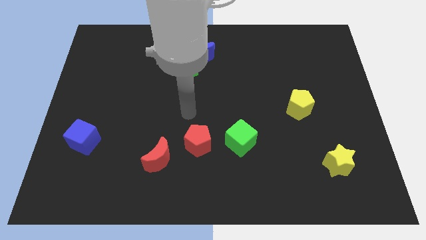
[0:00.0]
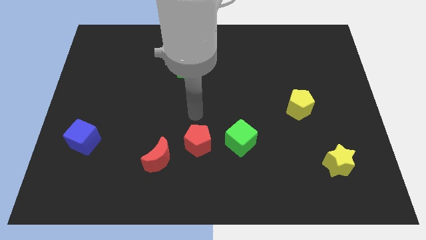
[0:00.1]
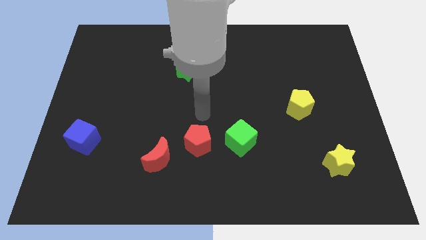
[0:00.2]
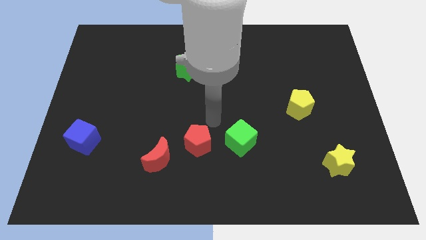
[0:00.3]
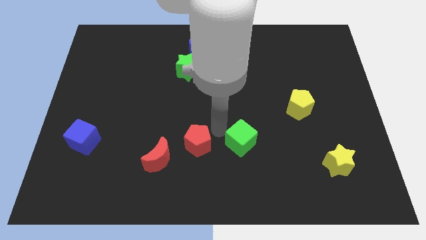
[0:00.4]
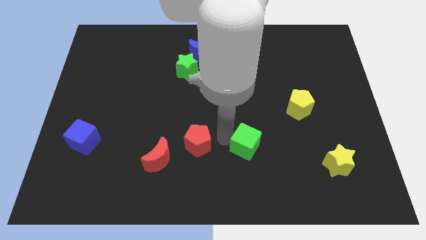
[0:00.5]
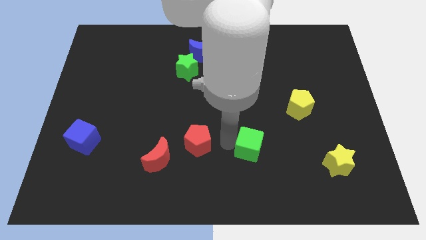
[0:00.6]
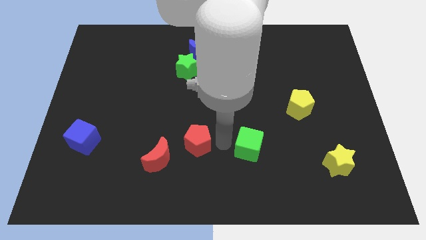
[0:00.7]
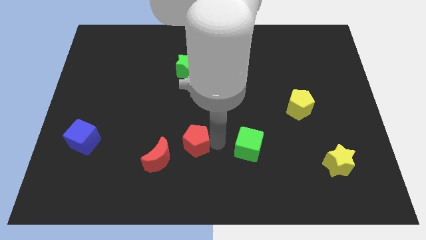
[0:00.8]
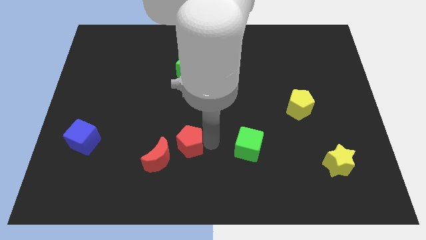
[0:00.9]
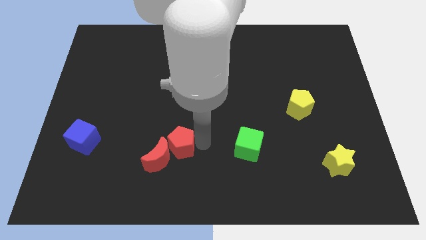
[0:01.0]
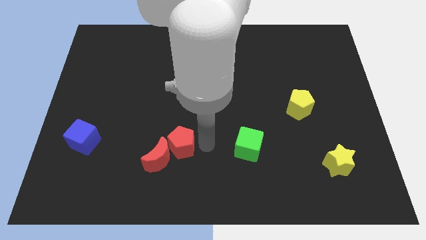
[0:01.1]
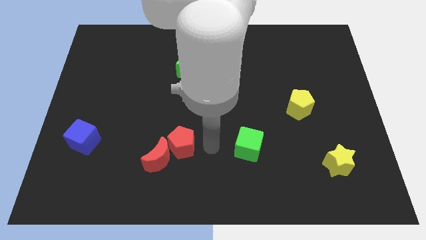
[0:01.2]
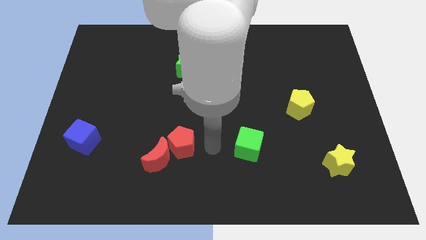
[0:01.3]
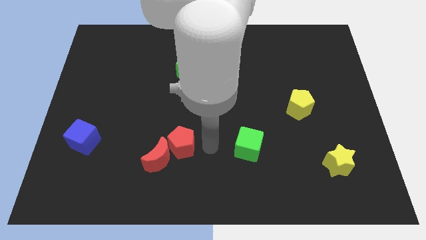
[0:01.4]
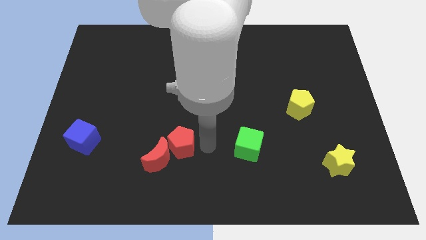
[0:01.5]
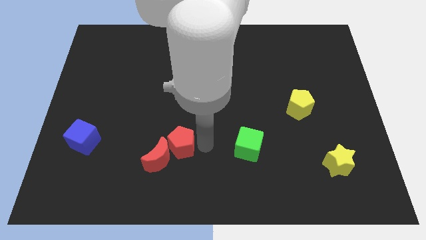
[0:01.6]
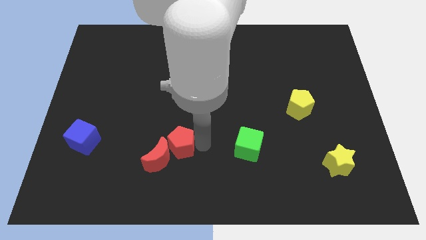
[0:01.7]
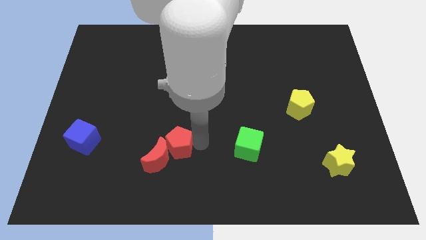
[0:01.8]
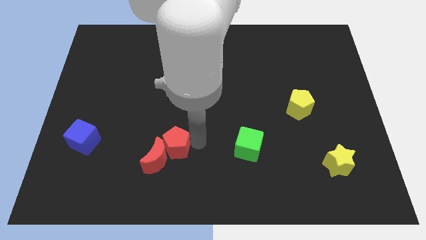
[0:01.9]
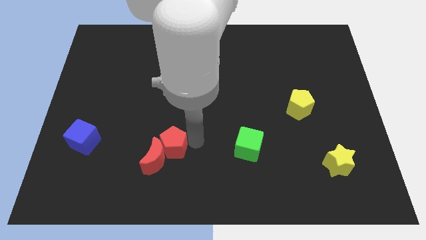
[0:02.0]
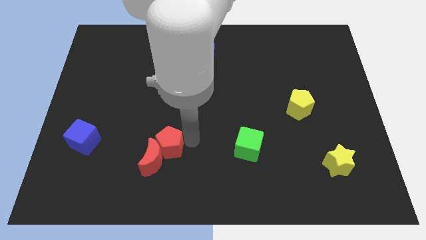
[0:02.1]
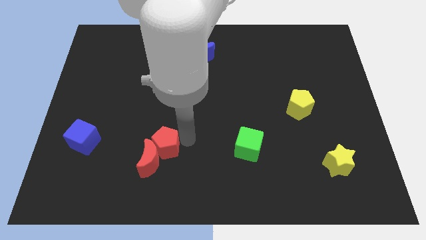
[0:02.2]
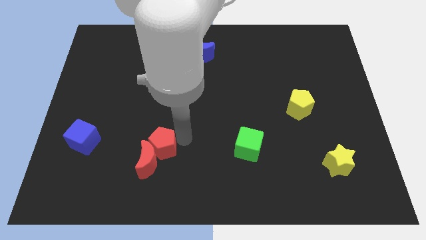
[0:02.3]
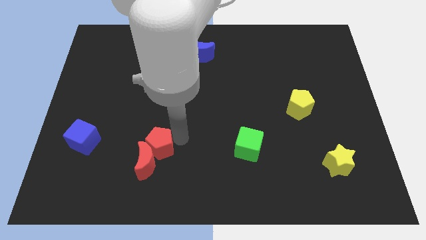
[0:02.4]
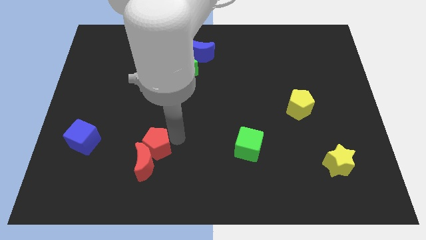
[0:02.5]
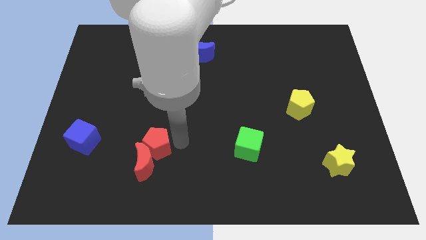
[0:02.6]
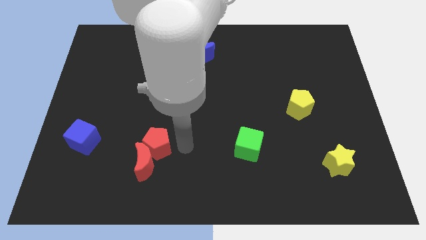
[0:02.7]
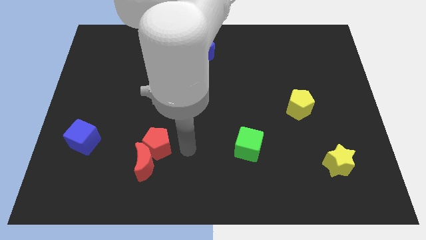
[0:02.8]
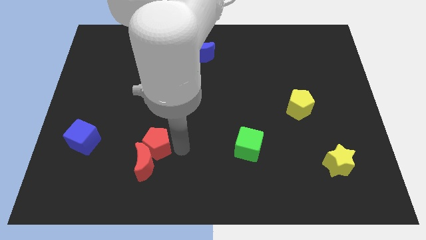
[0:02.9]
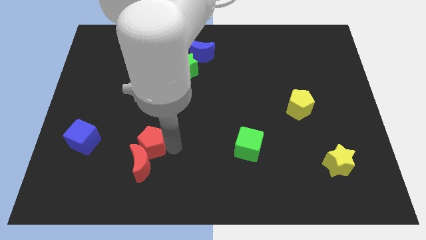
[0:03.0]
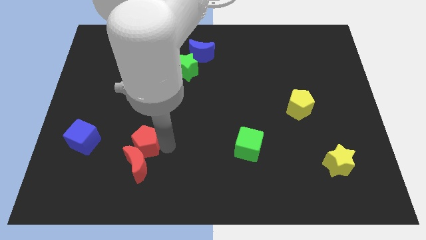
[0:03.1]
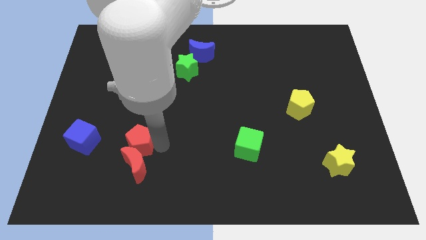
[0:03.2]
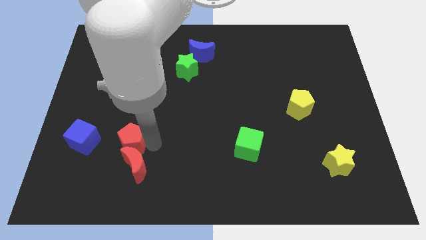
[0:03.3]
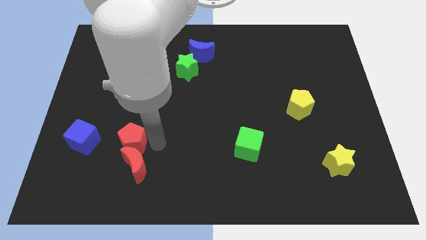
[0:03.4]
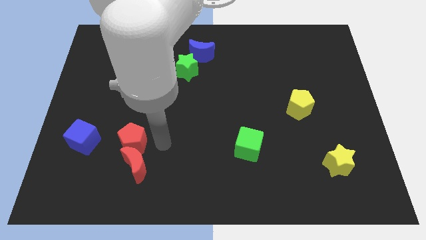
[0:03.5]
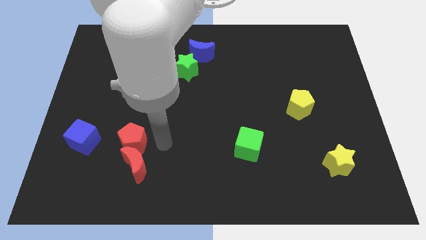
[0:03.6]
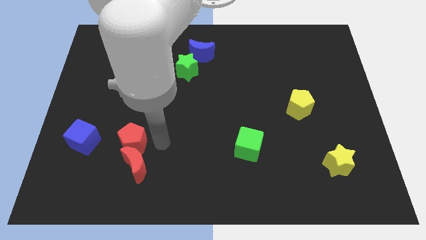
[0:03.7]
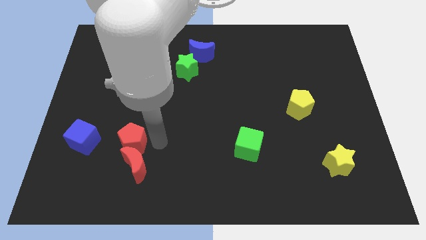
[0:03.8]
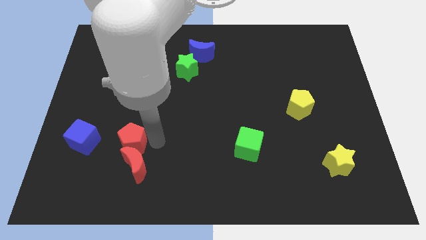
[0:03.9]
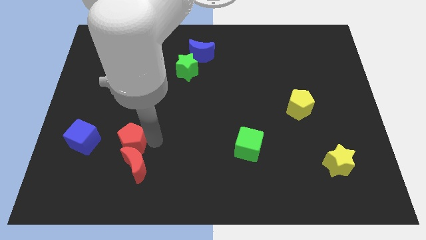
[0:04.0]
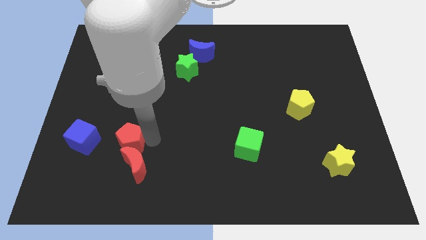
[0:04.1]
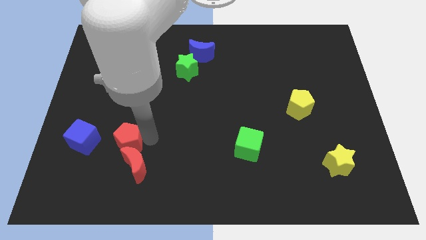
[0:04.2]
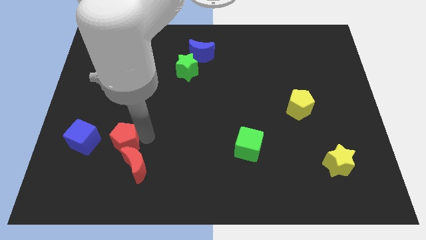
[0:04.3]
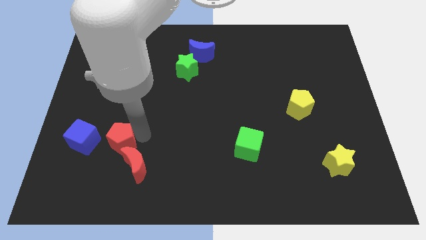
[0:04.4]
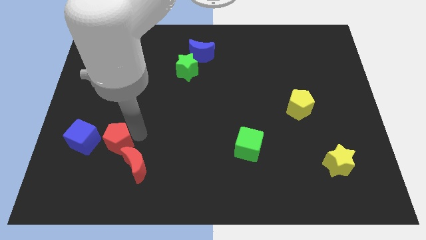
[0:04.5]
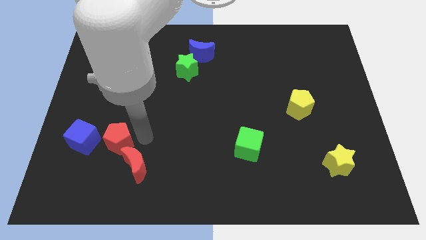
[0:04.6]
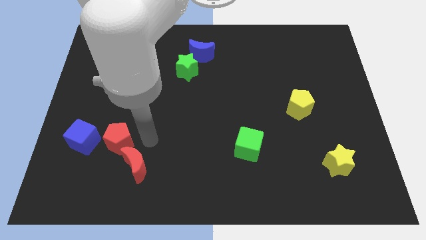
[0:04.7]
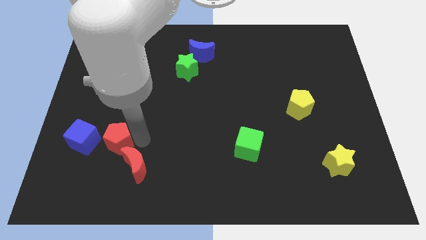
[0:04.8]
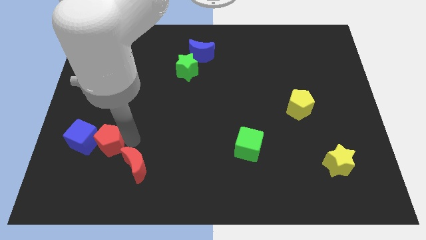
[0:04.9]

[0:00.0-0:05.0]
slide the red pentagon towards the blue cube

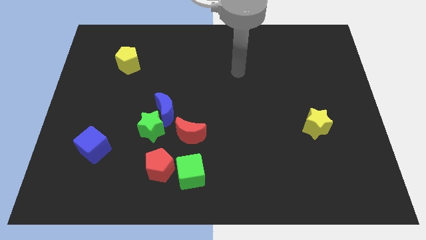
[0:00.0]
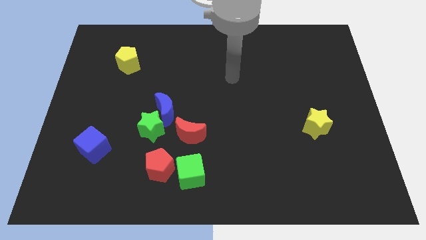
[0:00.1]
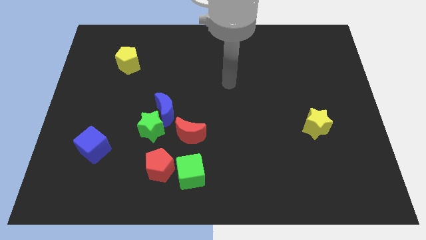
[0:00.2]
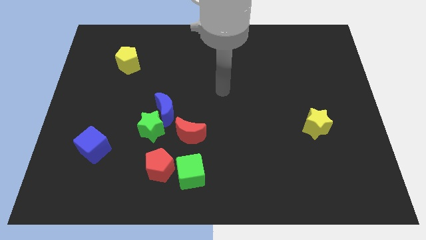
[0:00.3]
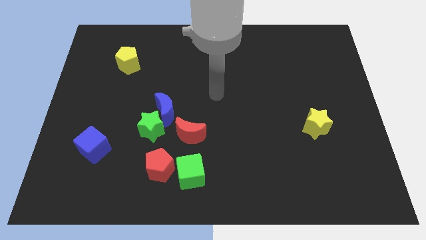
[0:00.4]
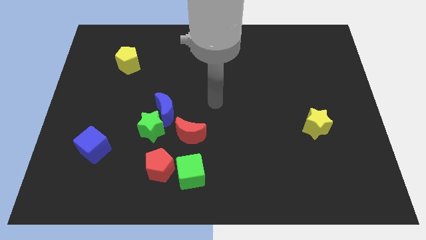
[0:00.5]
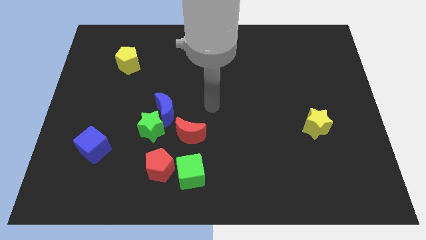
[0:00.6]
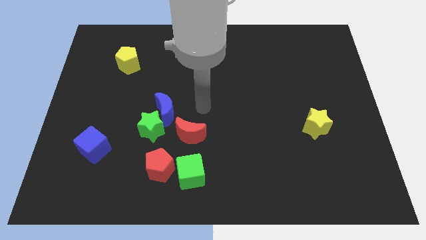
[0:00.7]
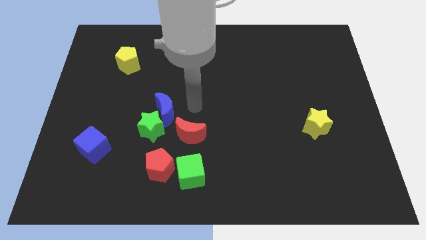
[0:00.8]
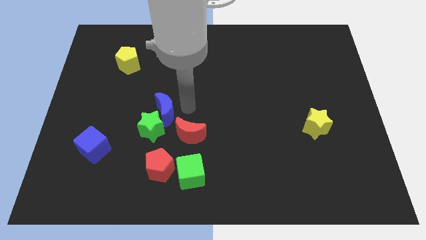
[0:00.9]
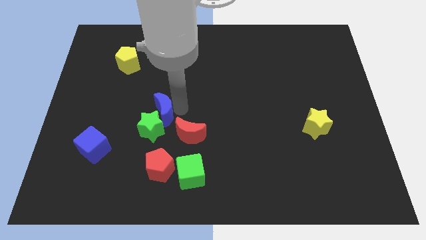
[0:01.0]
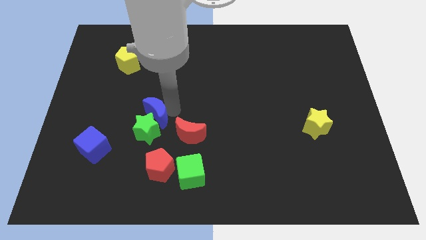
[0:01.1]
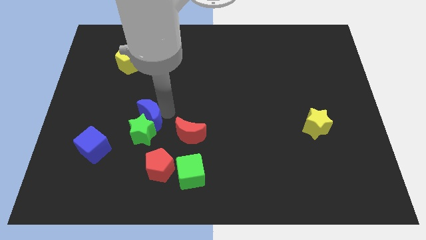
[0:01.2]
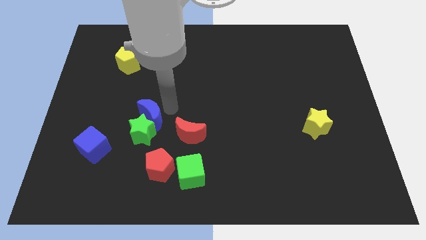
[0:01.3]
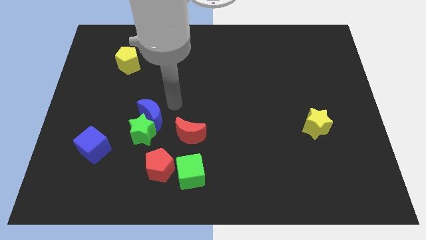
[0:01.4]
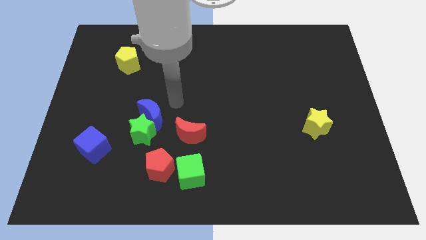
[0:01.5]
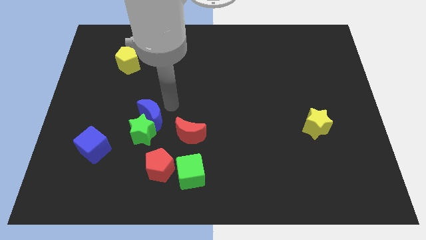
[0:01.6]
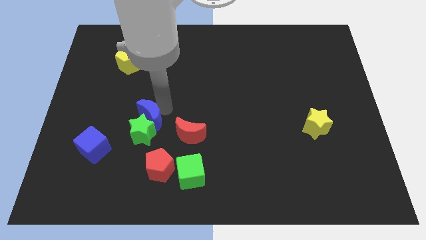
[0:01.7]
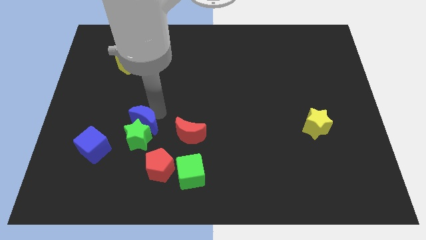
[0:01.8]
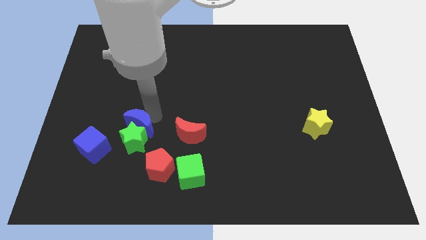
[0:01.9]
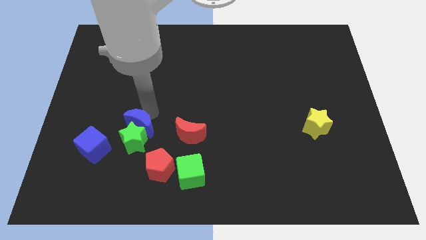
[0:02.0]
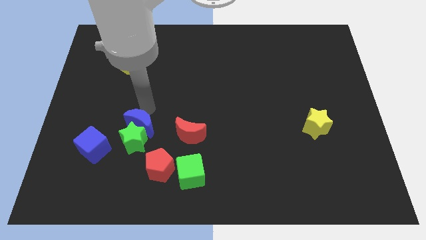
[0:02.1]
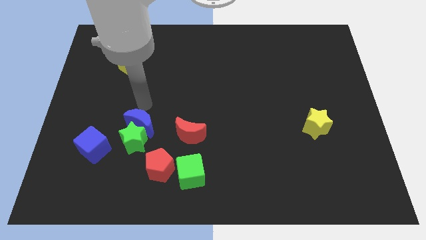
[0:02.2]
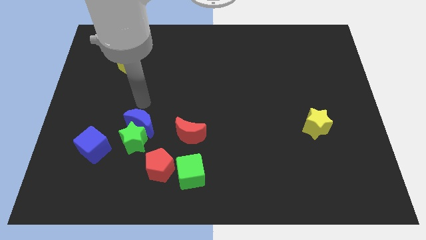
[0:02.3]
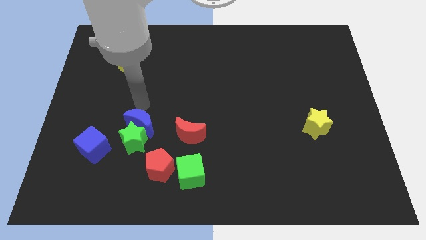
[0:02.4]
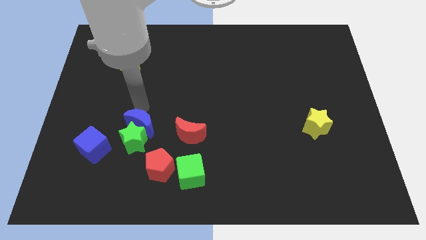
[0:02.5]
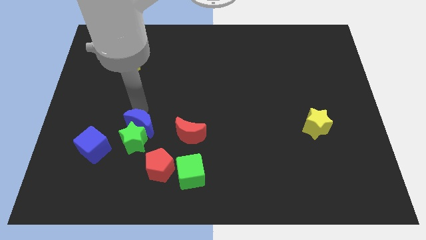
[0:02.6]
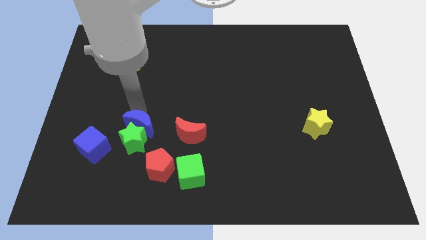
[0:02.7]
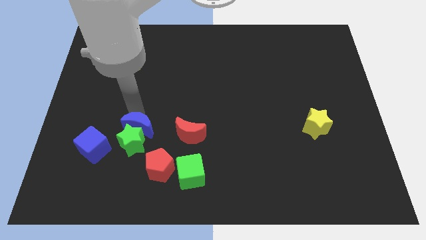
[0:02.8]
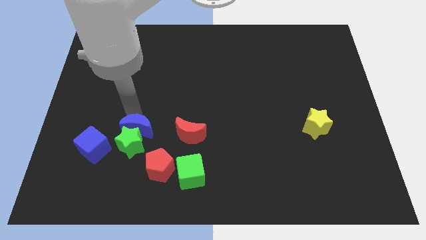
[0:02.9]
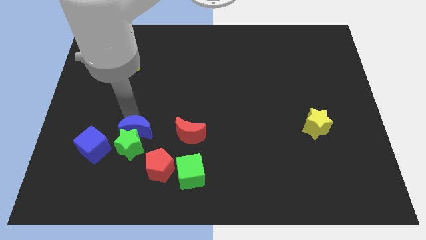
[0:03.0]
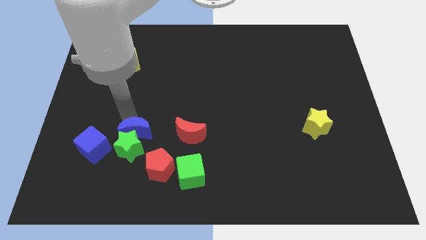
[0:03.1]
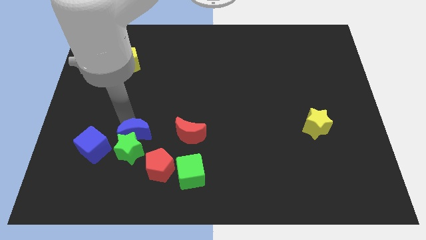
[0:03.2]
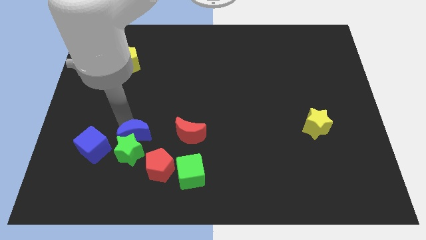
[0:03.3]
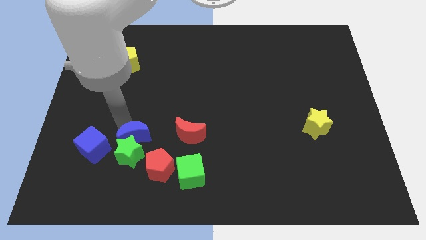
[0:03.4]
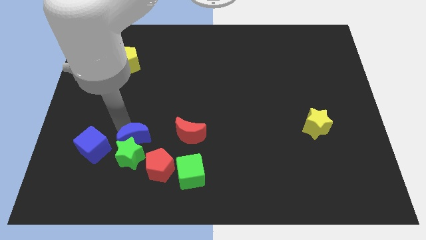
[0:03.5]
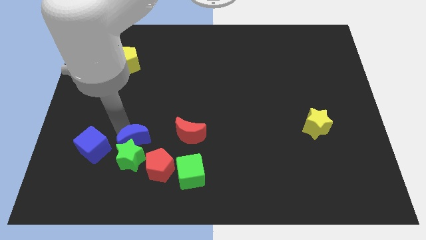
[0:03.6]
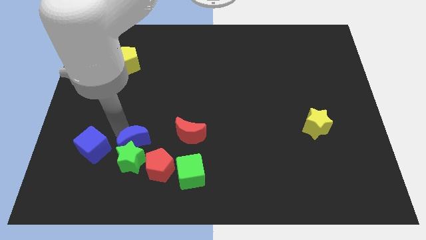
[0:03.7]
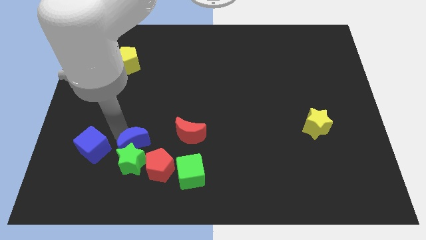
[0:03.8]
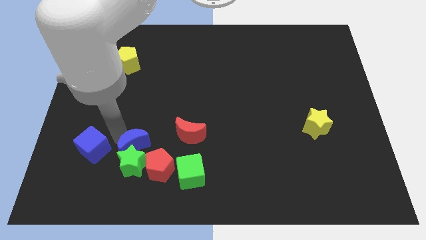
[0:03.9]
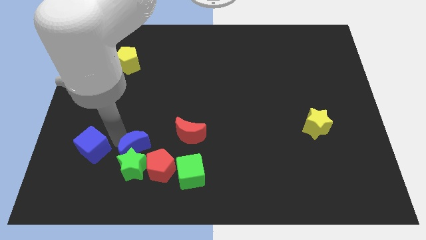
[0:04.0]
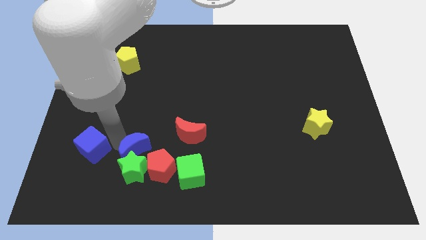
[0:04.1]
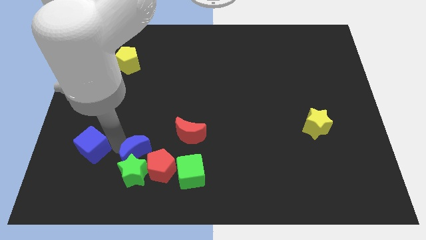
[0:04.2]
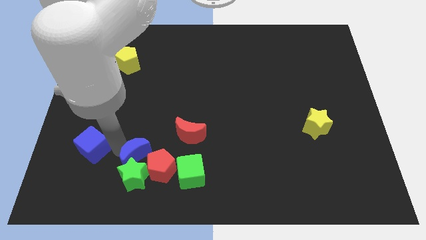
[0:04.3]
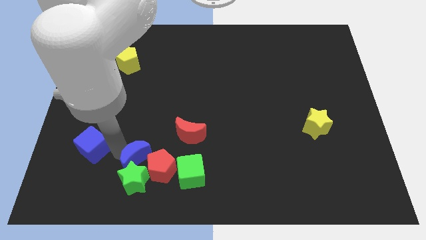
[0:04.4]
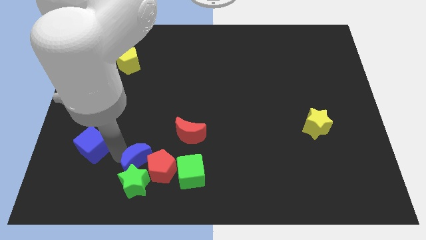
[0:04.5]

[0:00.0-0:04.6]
slide the blue moon next to the red pentagon
